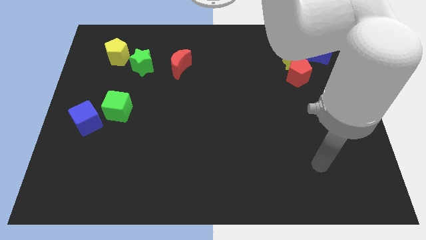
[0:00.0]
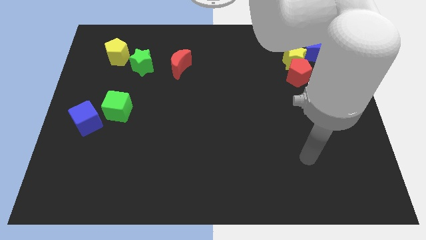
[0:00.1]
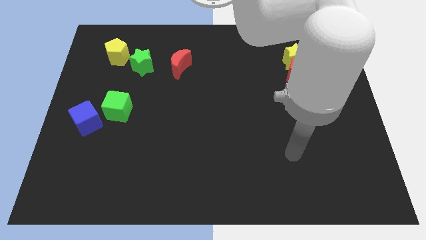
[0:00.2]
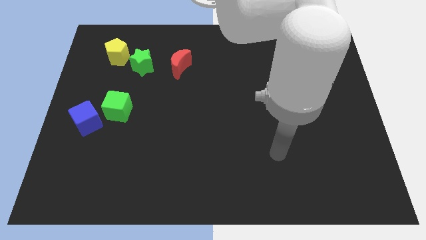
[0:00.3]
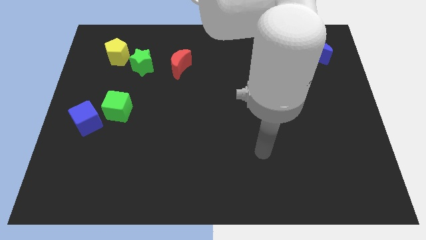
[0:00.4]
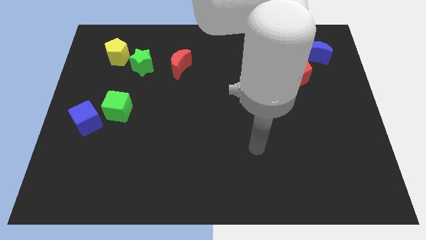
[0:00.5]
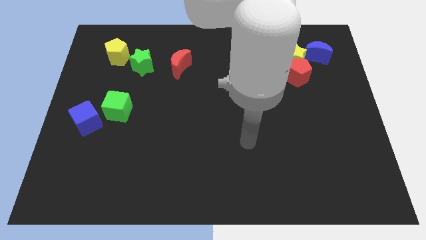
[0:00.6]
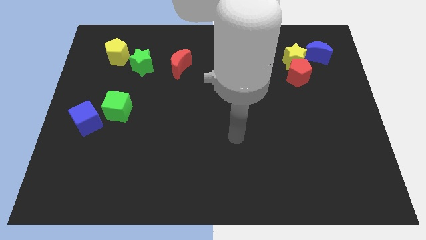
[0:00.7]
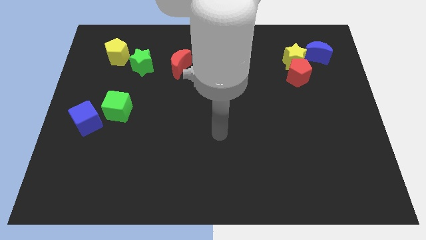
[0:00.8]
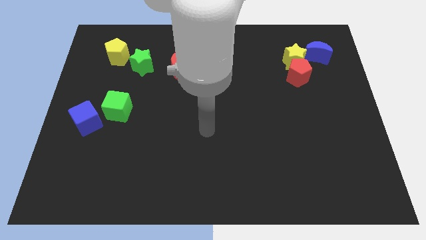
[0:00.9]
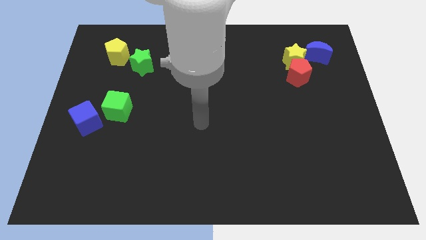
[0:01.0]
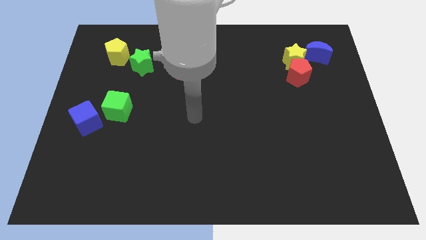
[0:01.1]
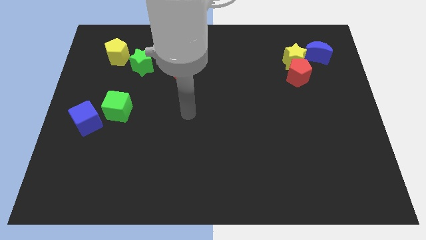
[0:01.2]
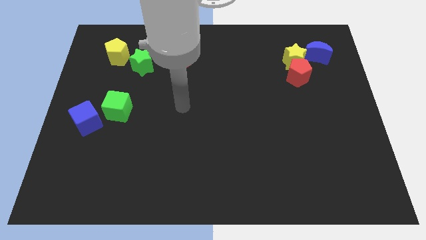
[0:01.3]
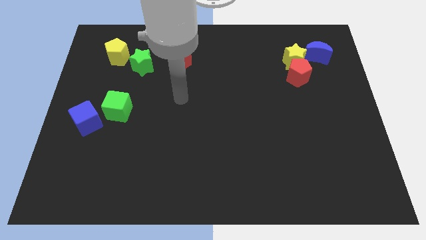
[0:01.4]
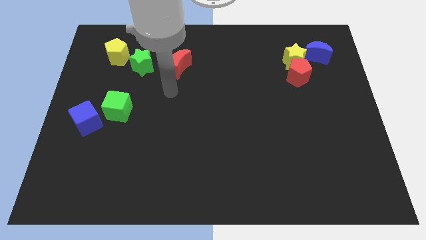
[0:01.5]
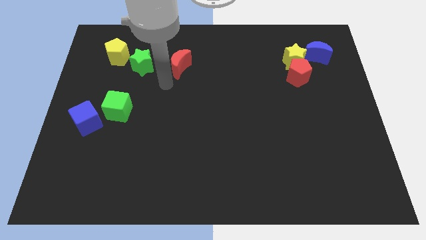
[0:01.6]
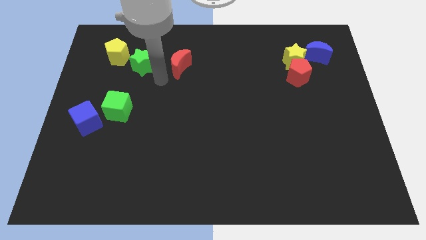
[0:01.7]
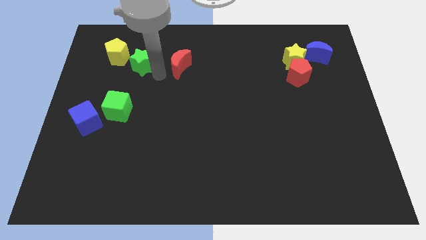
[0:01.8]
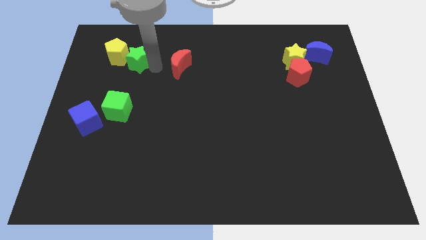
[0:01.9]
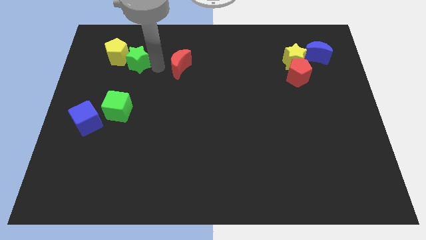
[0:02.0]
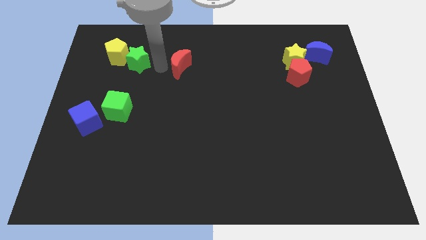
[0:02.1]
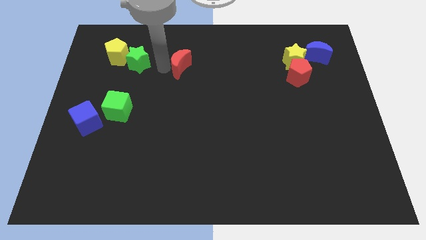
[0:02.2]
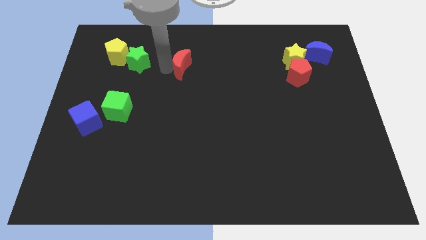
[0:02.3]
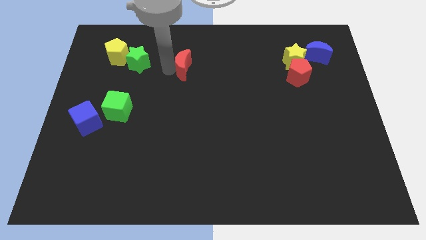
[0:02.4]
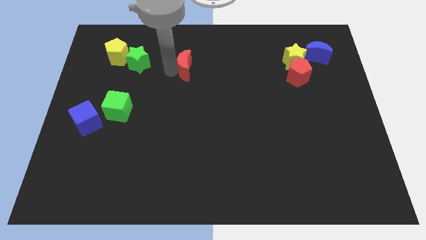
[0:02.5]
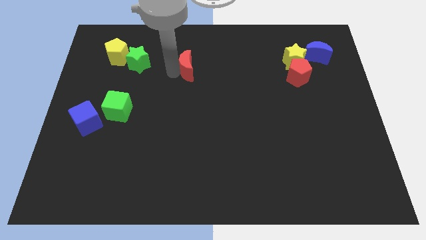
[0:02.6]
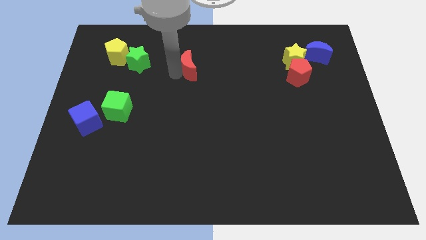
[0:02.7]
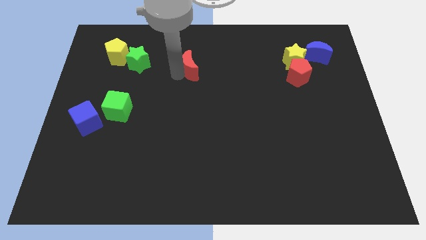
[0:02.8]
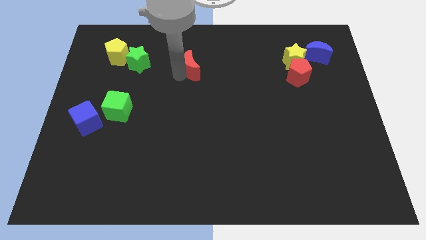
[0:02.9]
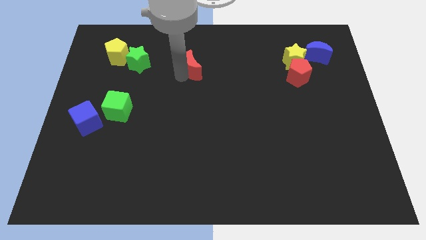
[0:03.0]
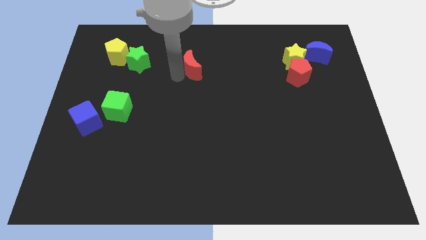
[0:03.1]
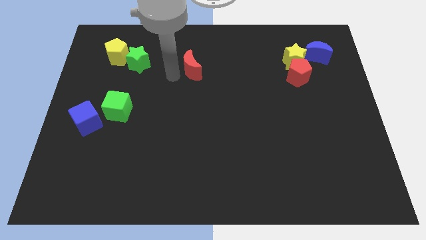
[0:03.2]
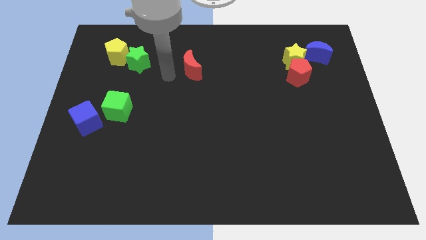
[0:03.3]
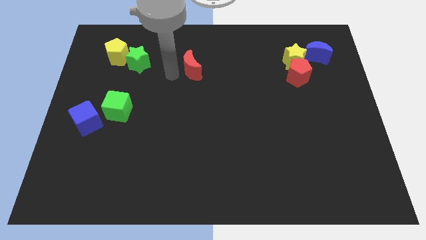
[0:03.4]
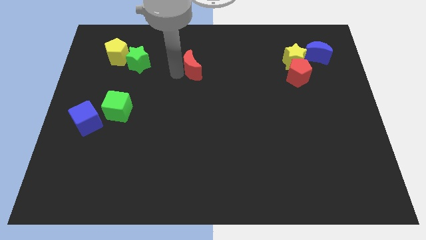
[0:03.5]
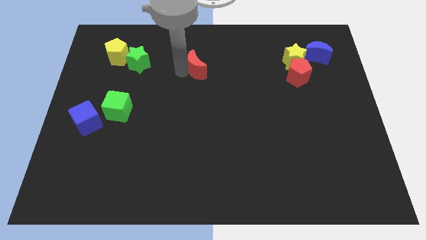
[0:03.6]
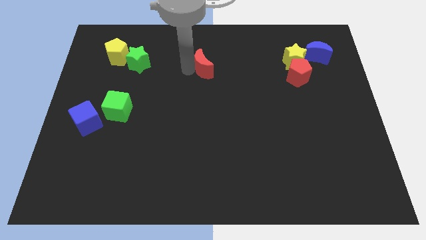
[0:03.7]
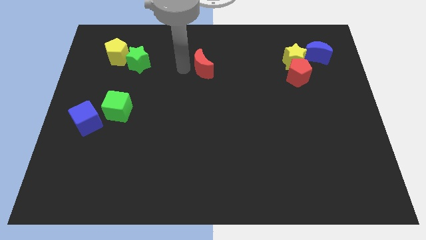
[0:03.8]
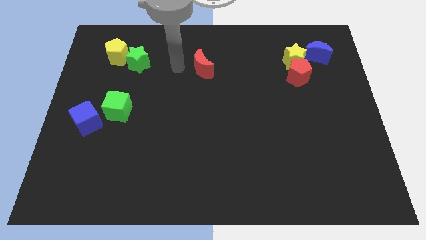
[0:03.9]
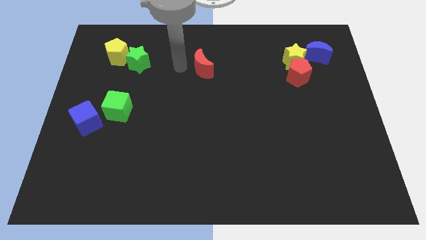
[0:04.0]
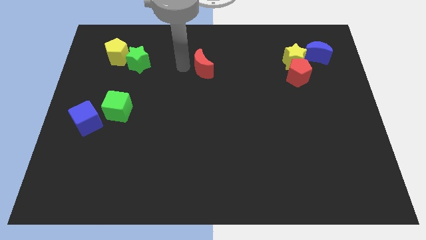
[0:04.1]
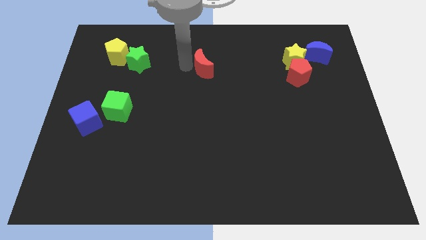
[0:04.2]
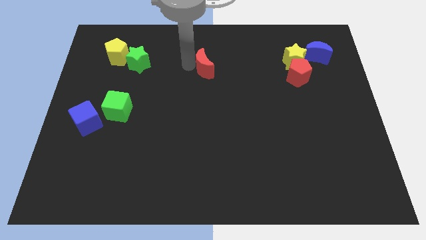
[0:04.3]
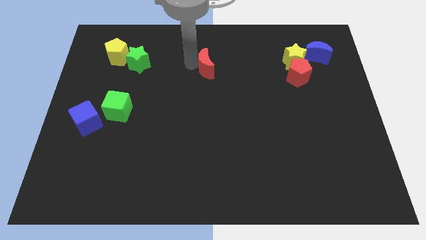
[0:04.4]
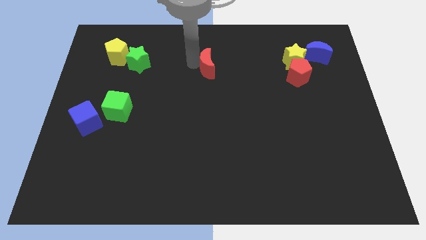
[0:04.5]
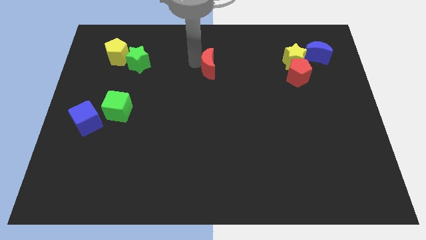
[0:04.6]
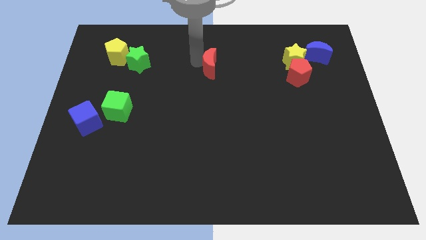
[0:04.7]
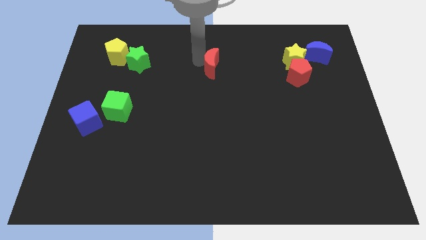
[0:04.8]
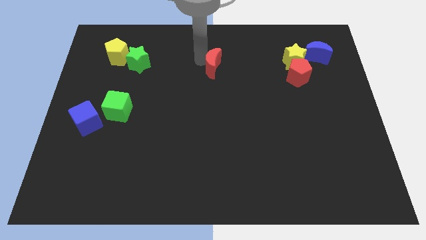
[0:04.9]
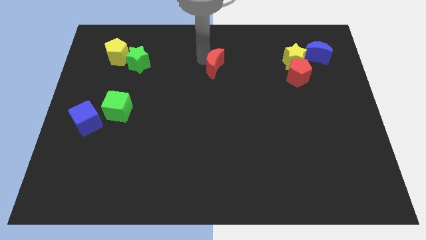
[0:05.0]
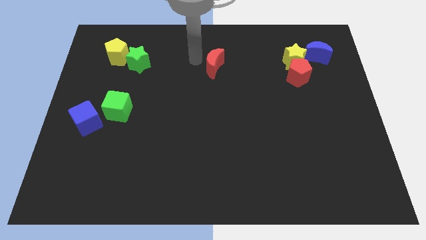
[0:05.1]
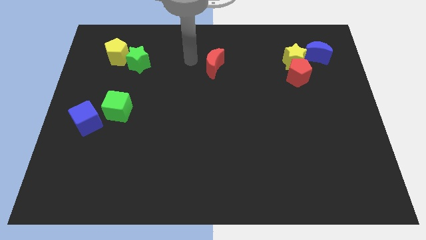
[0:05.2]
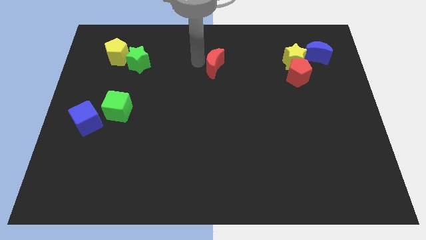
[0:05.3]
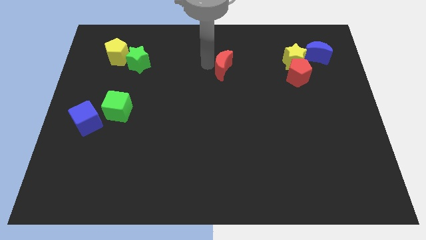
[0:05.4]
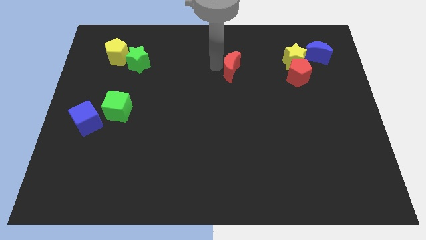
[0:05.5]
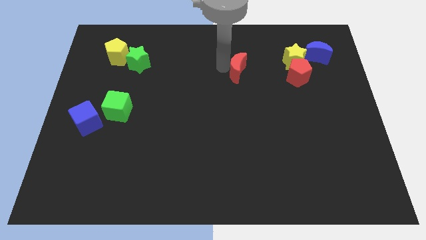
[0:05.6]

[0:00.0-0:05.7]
push the red moon just left of the red pentagon

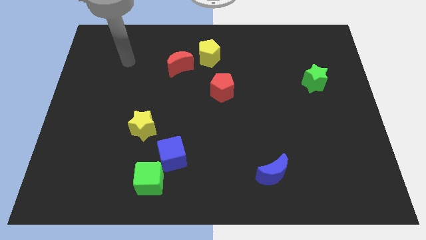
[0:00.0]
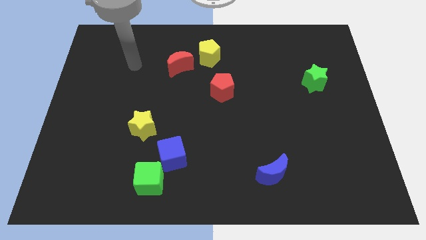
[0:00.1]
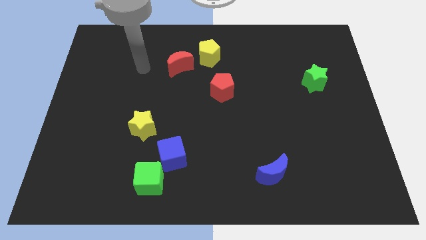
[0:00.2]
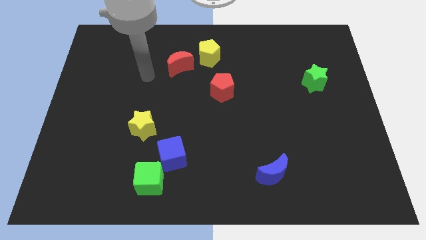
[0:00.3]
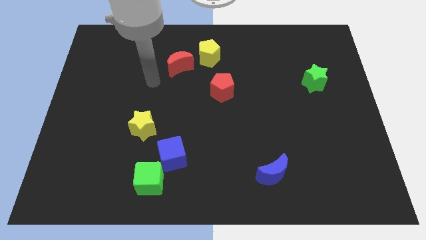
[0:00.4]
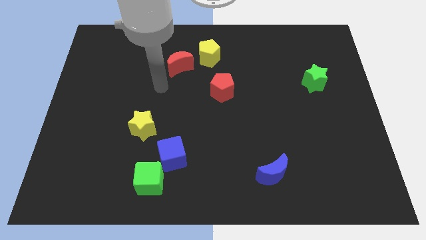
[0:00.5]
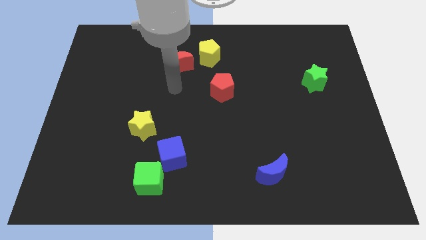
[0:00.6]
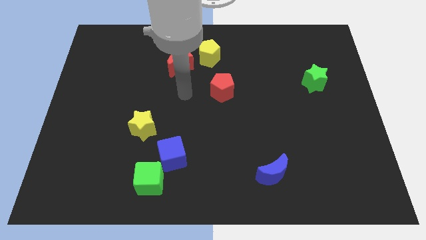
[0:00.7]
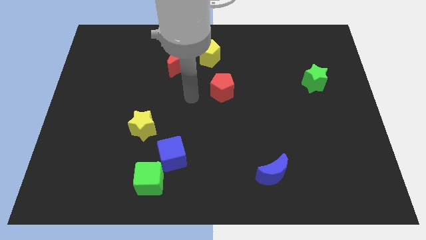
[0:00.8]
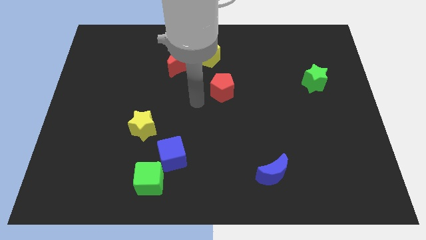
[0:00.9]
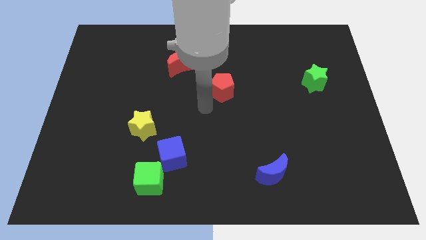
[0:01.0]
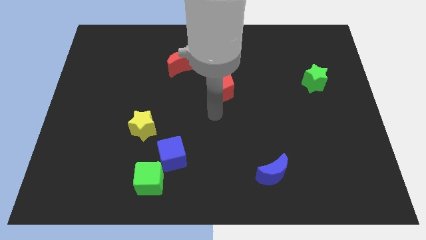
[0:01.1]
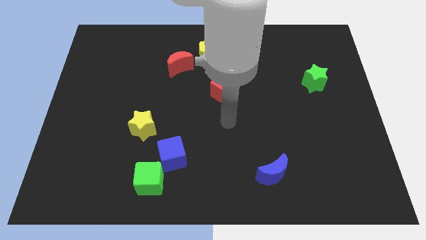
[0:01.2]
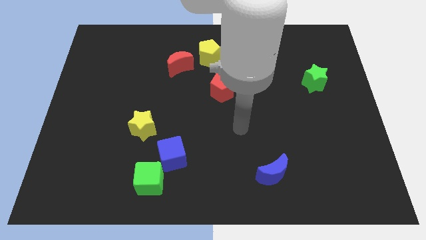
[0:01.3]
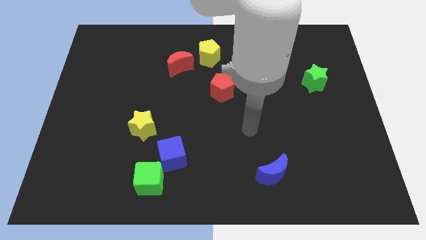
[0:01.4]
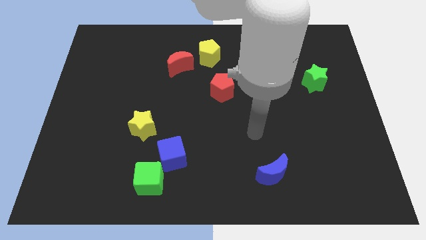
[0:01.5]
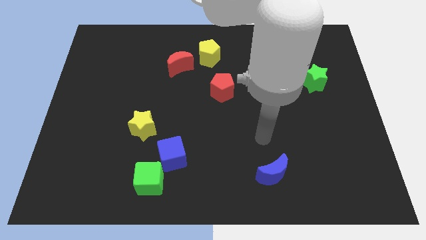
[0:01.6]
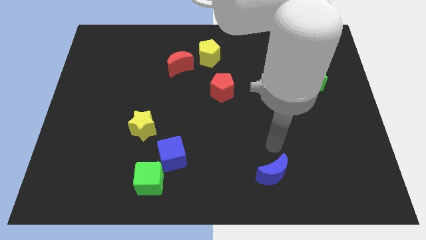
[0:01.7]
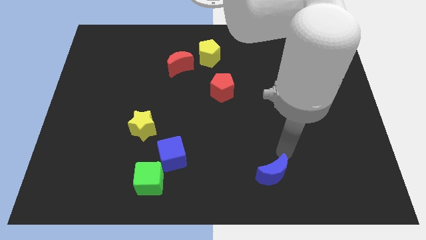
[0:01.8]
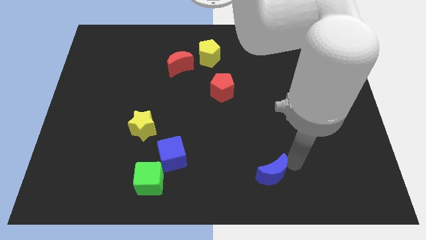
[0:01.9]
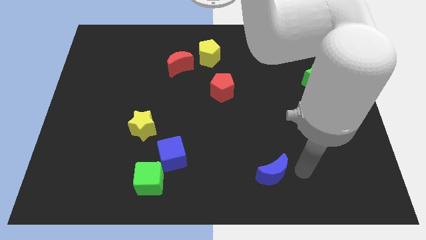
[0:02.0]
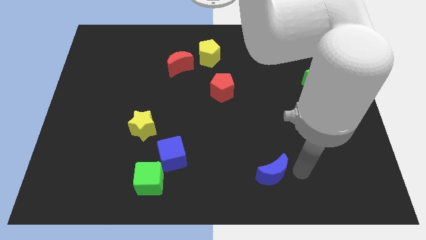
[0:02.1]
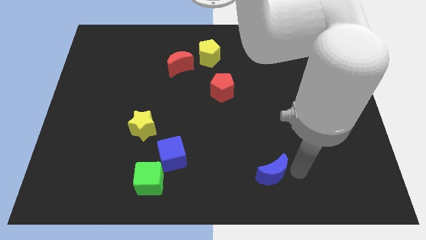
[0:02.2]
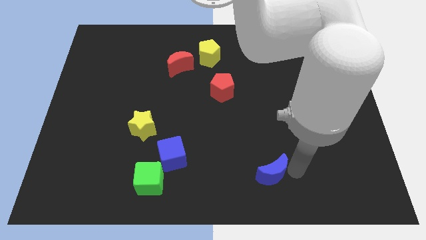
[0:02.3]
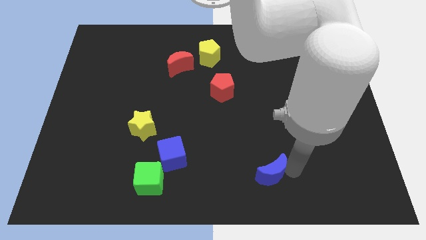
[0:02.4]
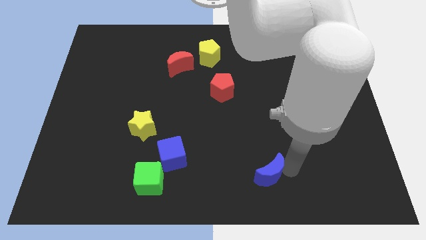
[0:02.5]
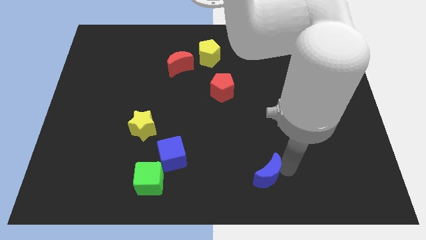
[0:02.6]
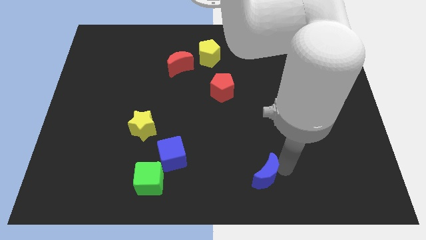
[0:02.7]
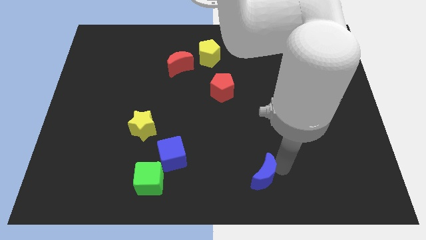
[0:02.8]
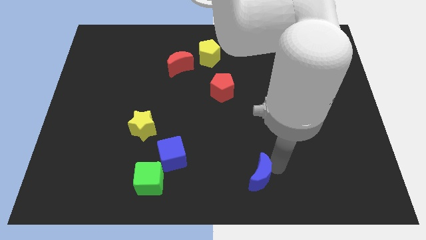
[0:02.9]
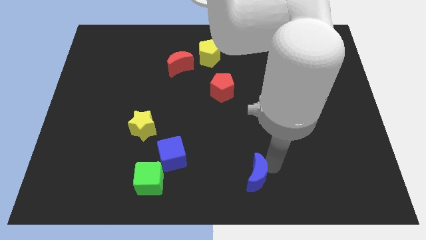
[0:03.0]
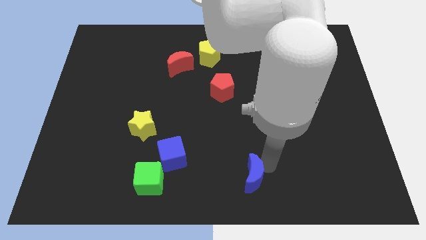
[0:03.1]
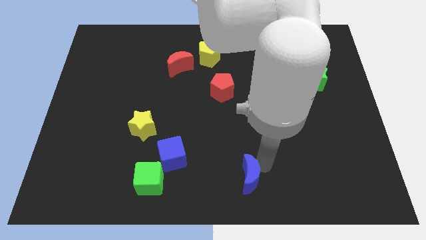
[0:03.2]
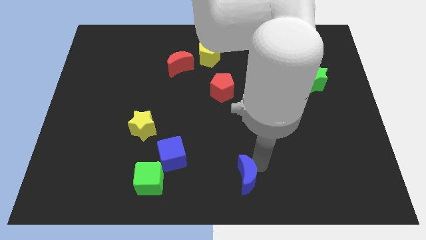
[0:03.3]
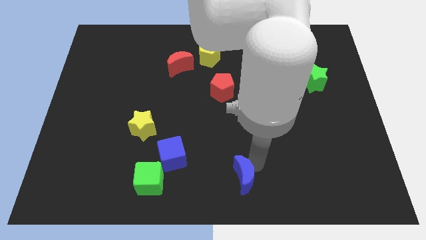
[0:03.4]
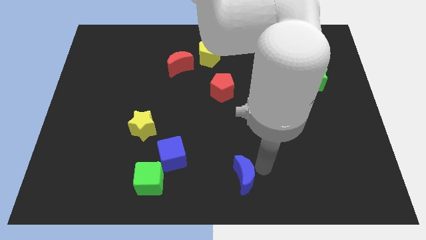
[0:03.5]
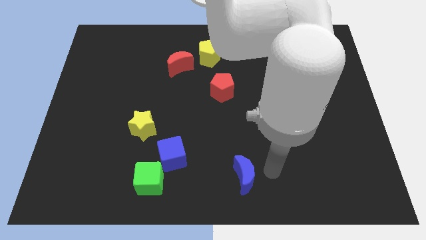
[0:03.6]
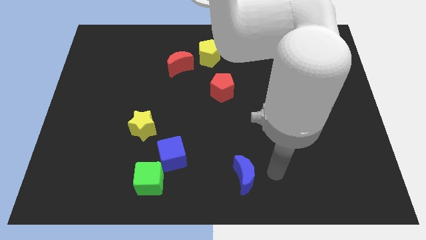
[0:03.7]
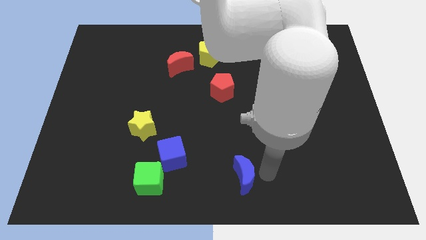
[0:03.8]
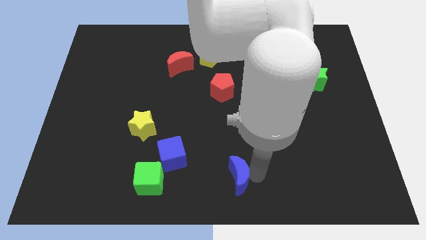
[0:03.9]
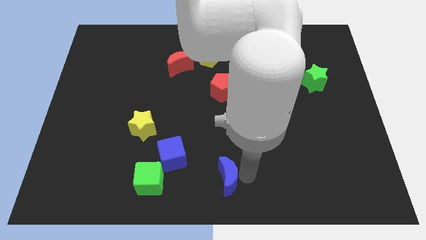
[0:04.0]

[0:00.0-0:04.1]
move the blue moon to the right side of the green cube
